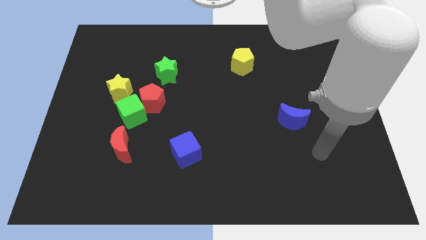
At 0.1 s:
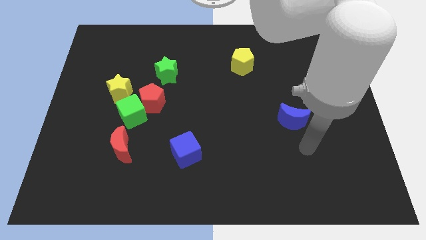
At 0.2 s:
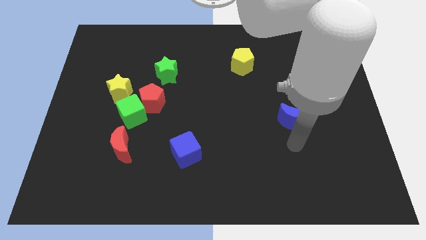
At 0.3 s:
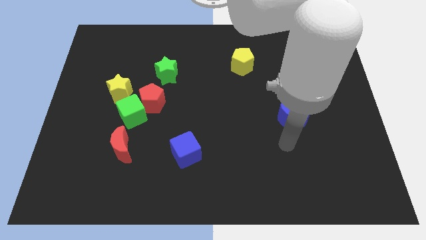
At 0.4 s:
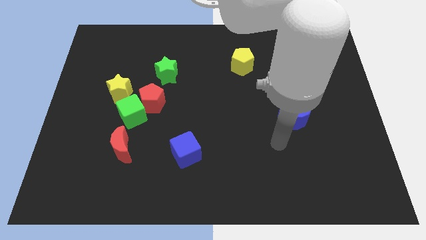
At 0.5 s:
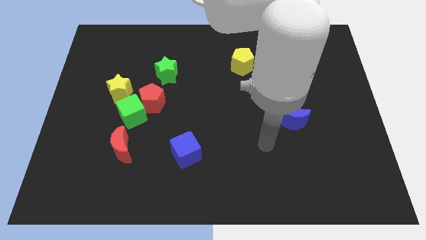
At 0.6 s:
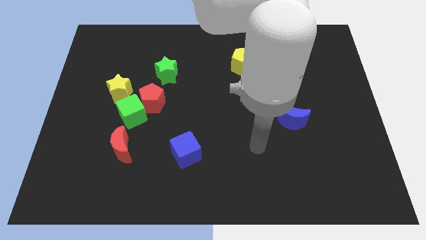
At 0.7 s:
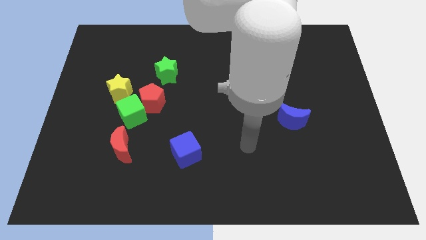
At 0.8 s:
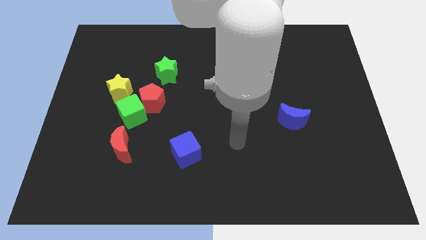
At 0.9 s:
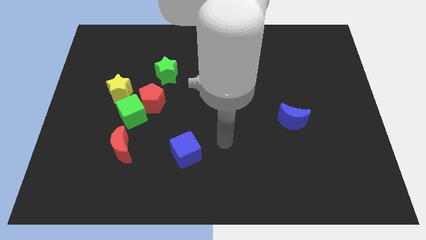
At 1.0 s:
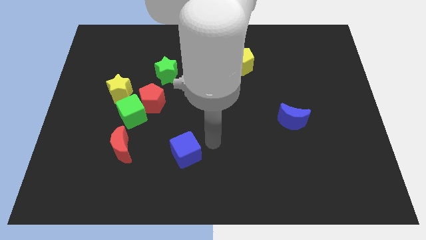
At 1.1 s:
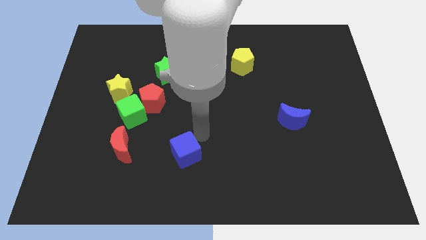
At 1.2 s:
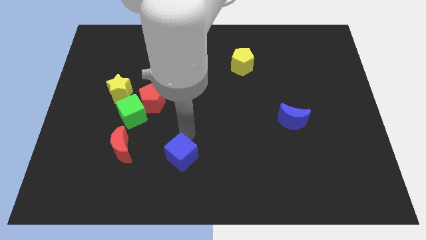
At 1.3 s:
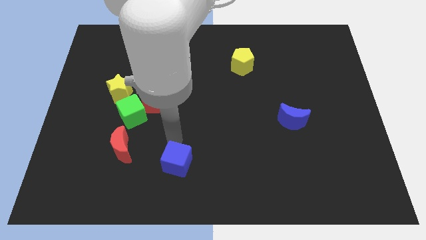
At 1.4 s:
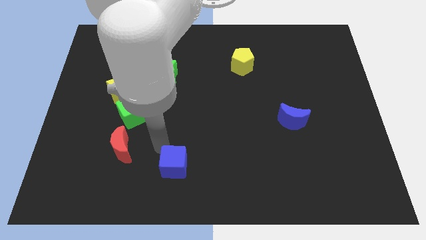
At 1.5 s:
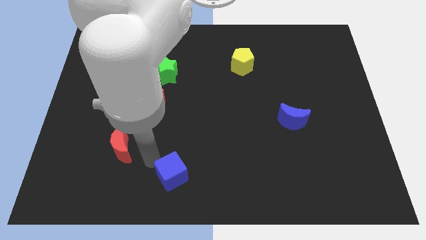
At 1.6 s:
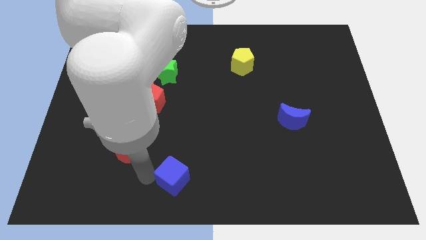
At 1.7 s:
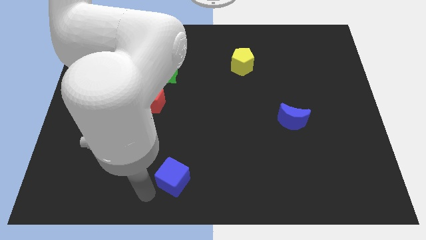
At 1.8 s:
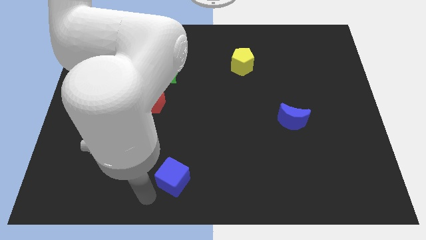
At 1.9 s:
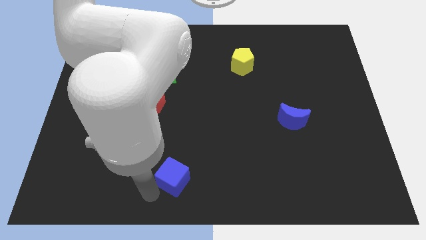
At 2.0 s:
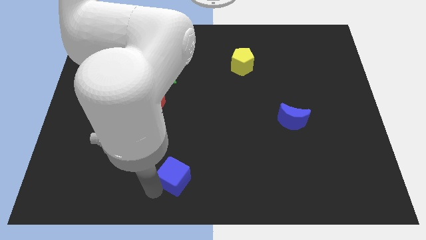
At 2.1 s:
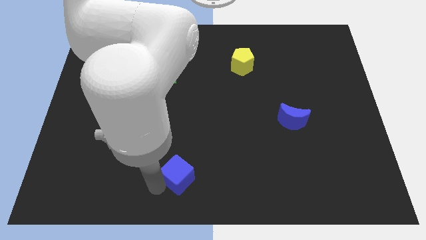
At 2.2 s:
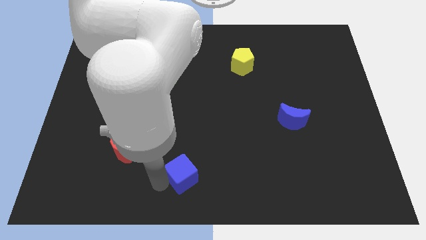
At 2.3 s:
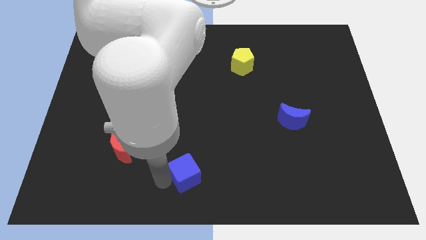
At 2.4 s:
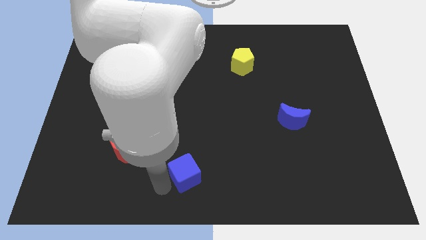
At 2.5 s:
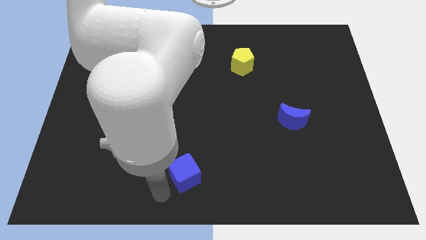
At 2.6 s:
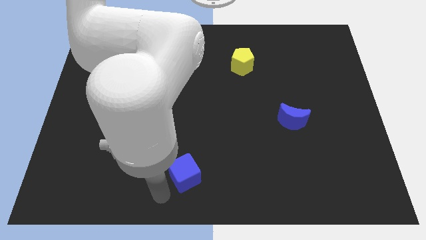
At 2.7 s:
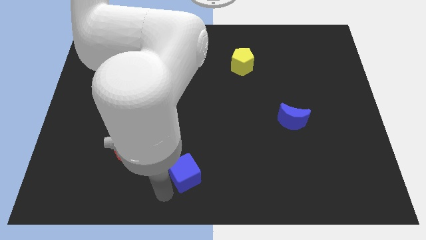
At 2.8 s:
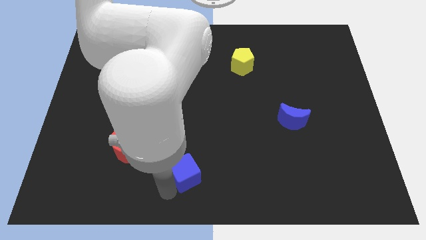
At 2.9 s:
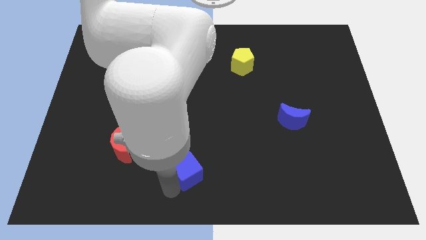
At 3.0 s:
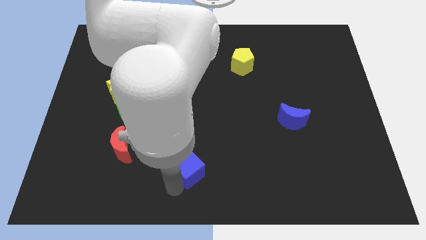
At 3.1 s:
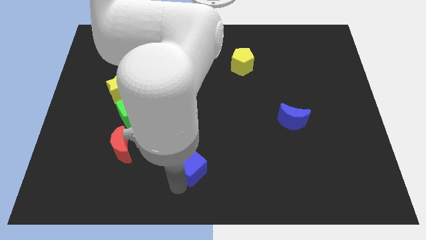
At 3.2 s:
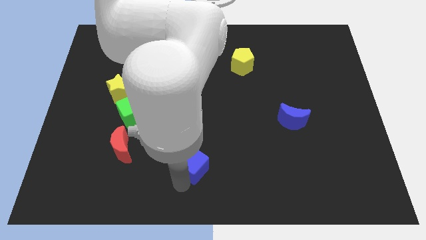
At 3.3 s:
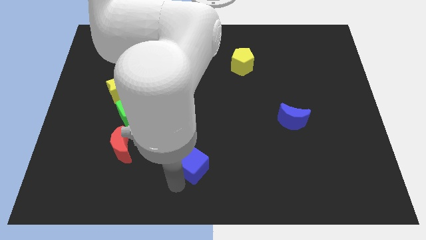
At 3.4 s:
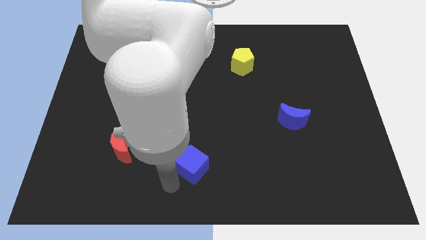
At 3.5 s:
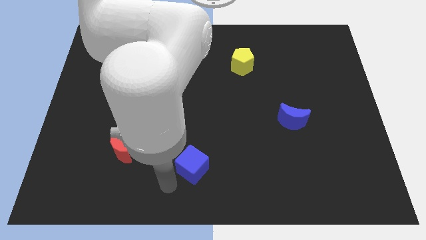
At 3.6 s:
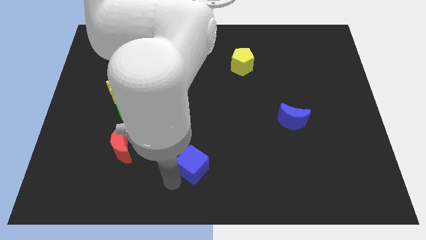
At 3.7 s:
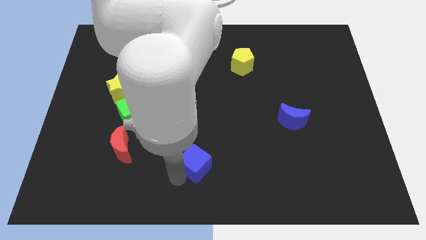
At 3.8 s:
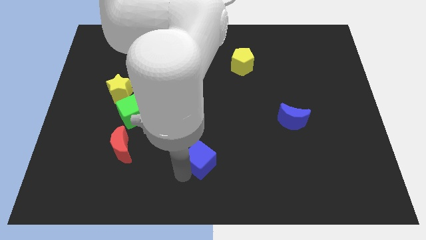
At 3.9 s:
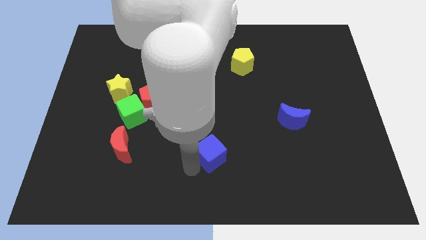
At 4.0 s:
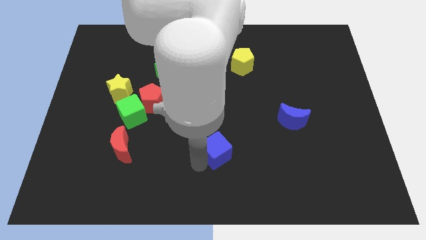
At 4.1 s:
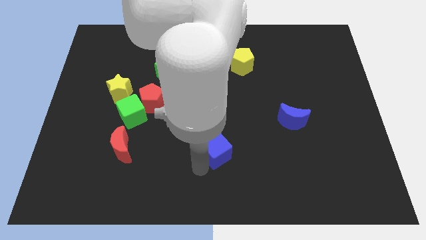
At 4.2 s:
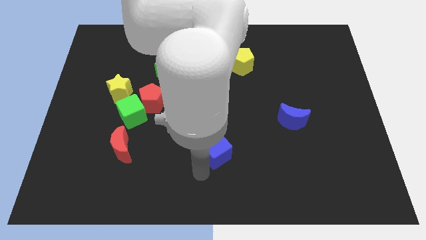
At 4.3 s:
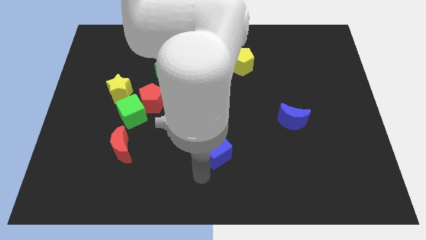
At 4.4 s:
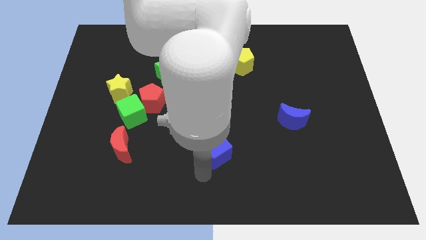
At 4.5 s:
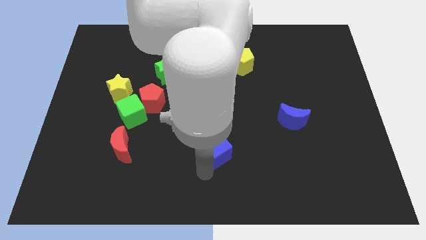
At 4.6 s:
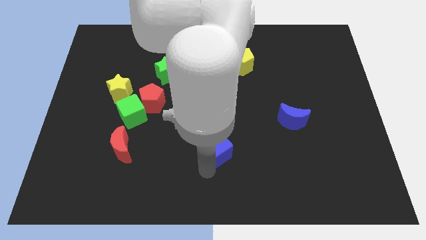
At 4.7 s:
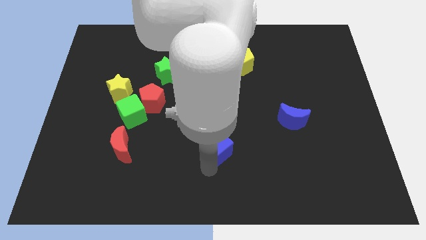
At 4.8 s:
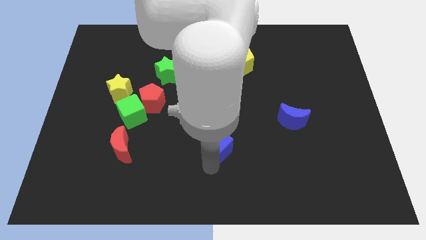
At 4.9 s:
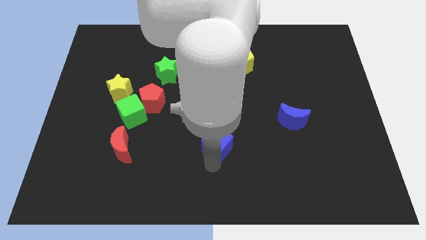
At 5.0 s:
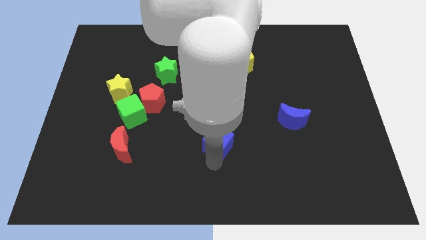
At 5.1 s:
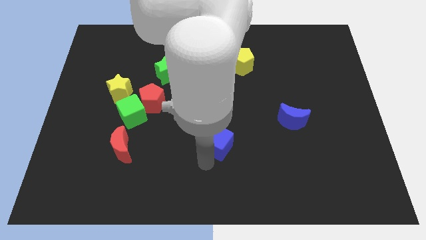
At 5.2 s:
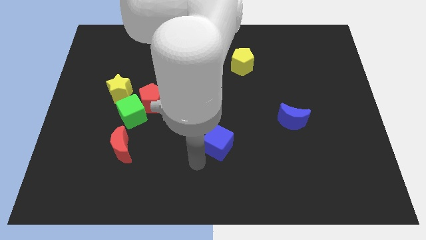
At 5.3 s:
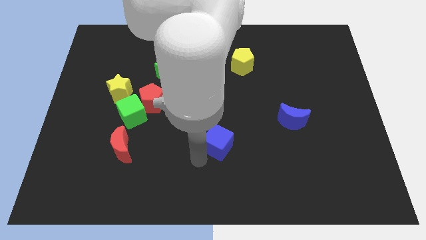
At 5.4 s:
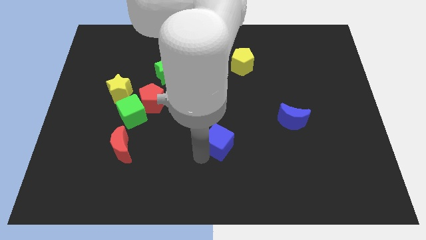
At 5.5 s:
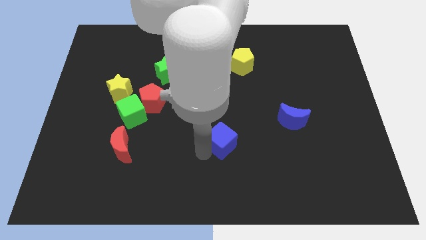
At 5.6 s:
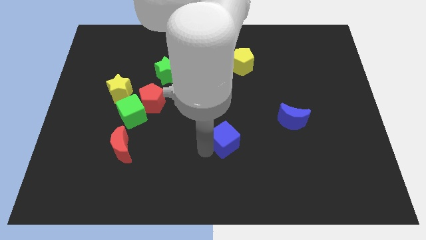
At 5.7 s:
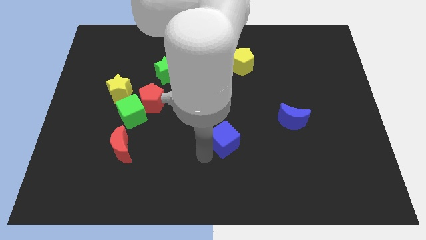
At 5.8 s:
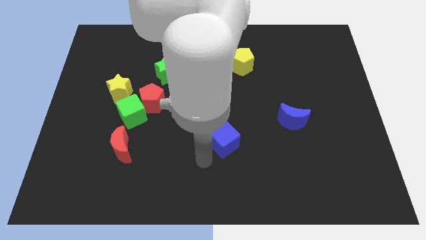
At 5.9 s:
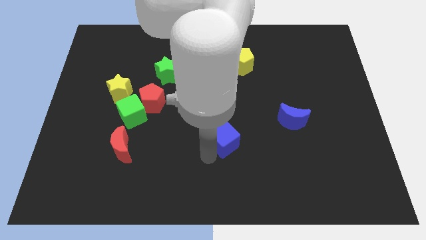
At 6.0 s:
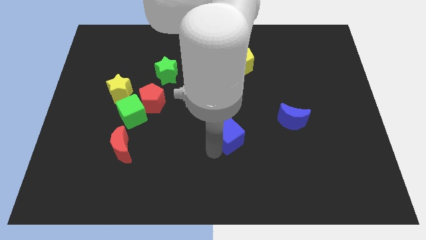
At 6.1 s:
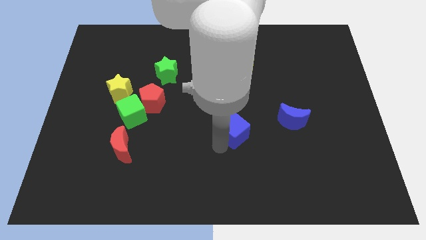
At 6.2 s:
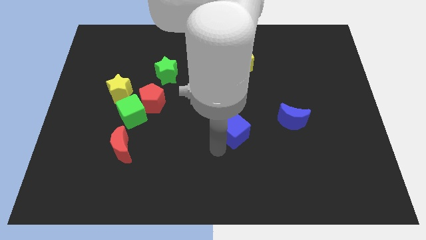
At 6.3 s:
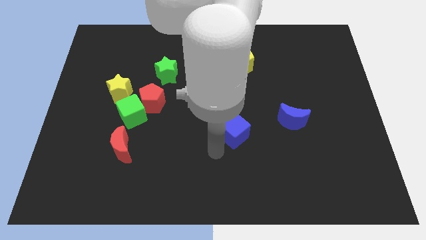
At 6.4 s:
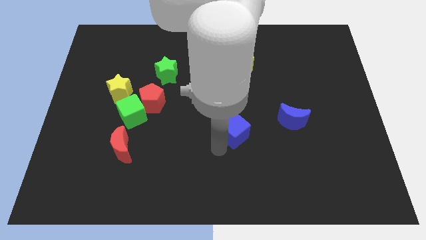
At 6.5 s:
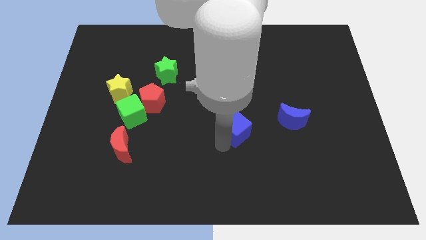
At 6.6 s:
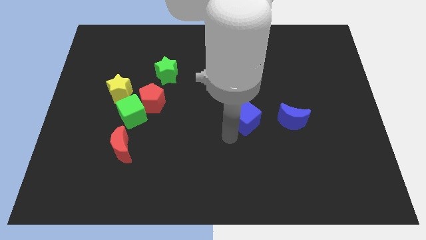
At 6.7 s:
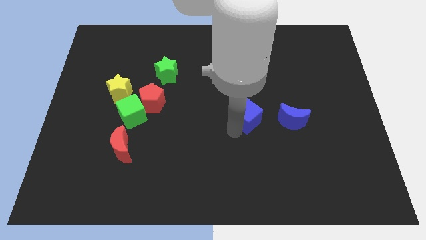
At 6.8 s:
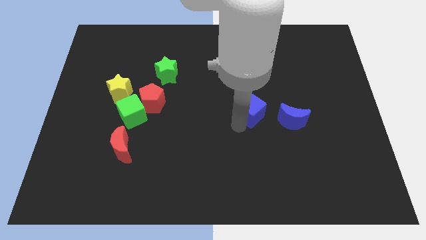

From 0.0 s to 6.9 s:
put the blue cube to the top left of the blue moon

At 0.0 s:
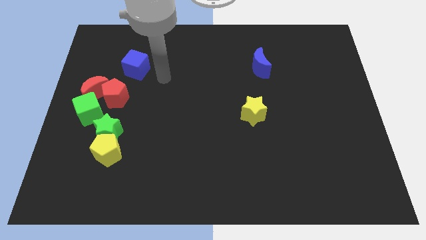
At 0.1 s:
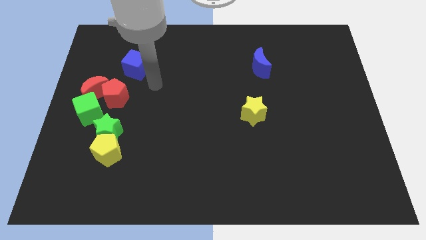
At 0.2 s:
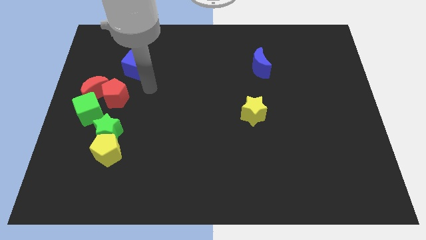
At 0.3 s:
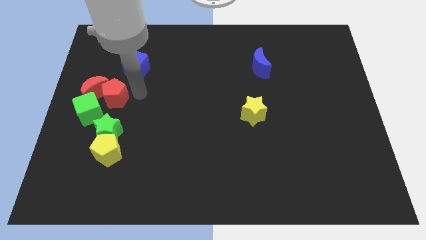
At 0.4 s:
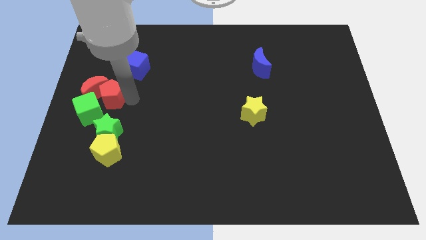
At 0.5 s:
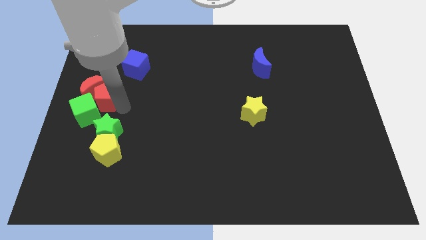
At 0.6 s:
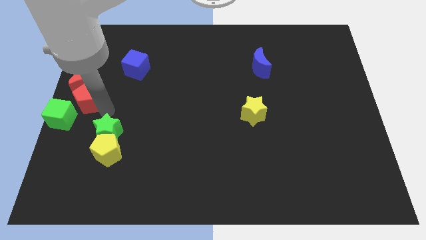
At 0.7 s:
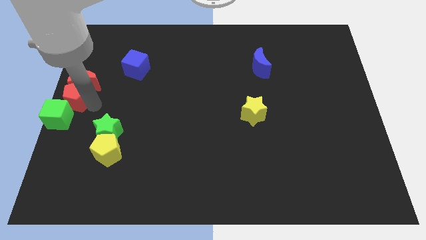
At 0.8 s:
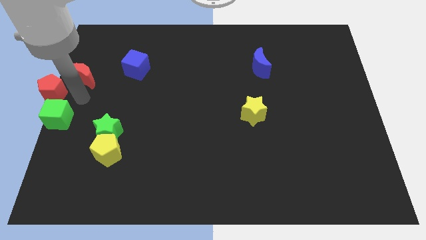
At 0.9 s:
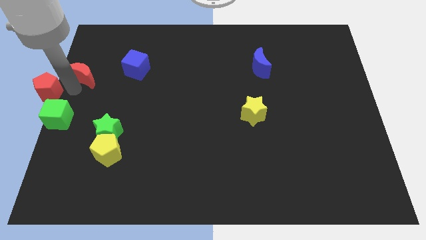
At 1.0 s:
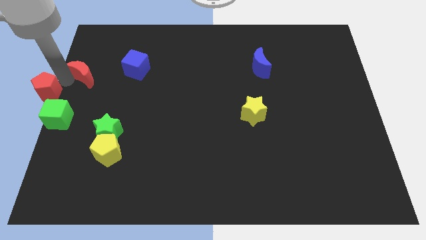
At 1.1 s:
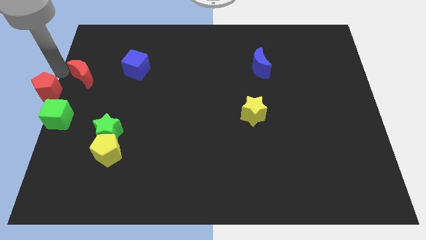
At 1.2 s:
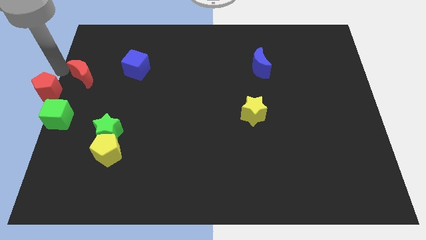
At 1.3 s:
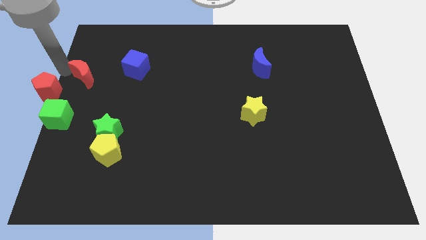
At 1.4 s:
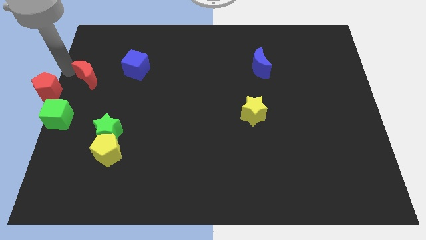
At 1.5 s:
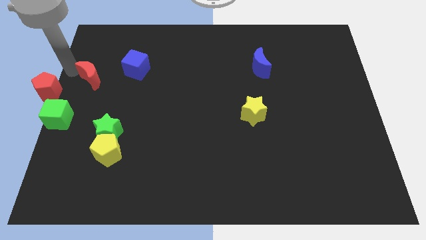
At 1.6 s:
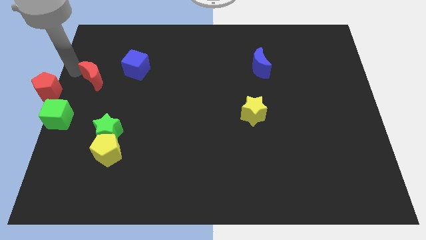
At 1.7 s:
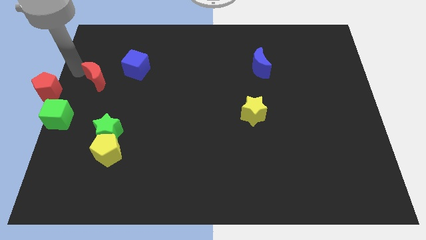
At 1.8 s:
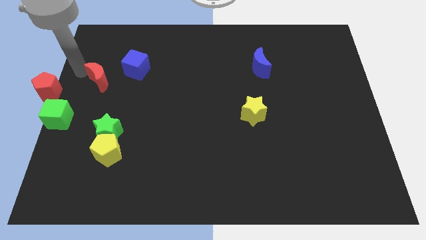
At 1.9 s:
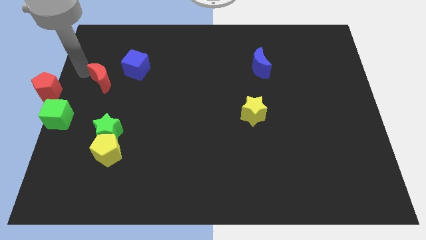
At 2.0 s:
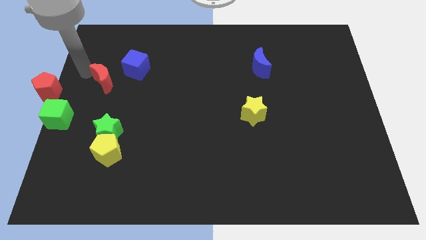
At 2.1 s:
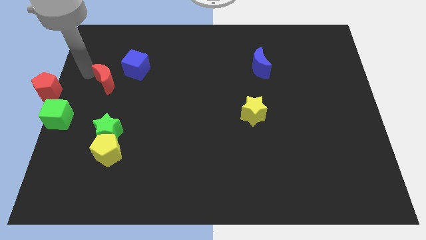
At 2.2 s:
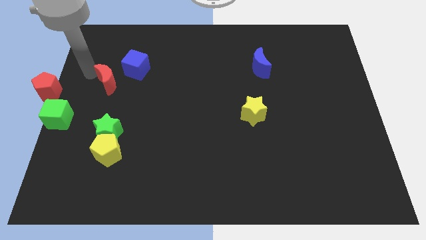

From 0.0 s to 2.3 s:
slide the red moon above the green star
